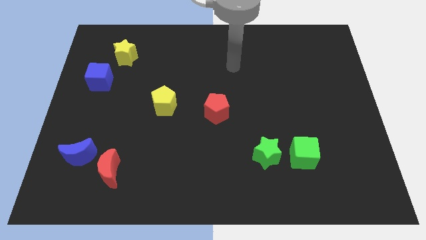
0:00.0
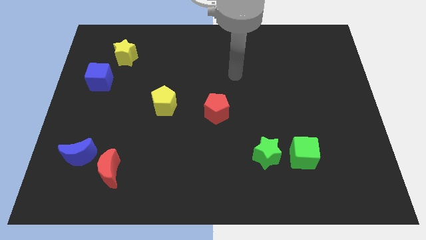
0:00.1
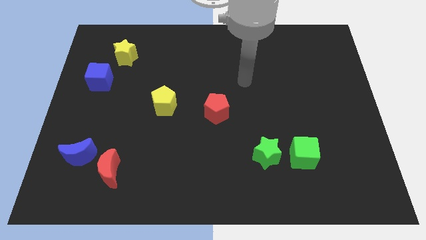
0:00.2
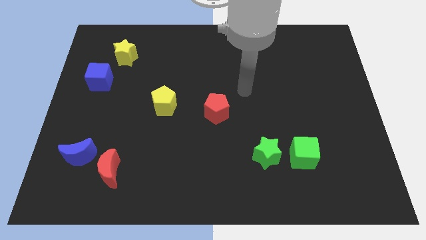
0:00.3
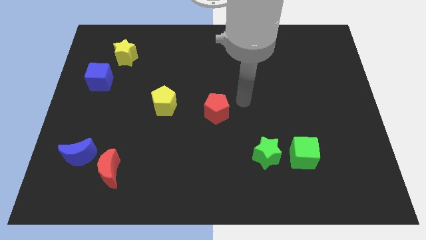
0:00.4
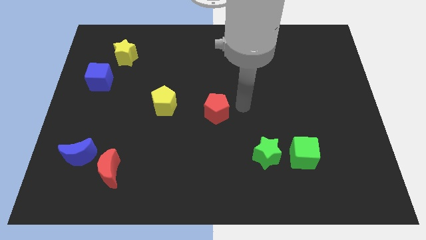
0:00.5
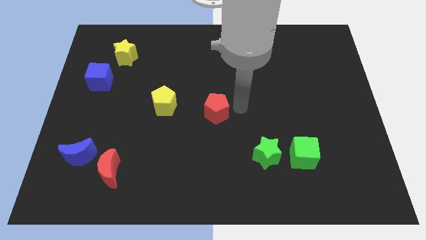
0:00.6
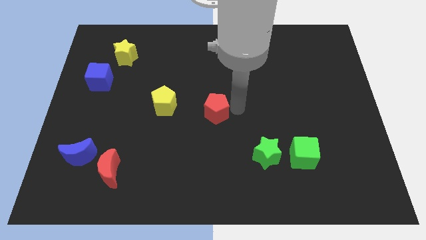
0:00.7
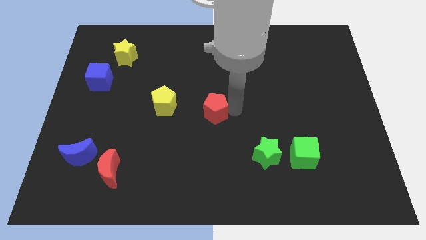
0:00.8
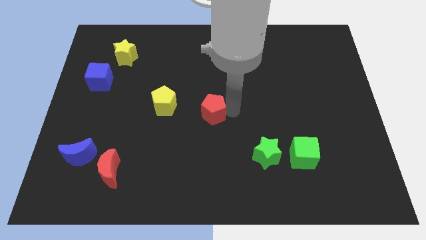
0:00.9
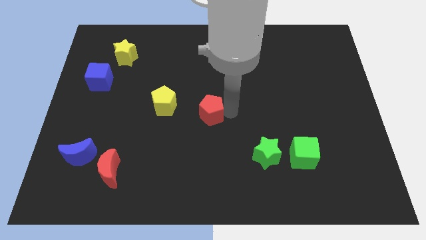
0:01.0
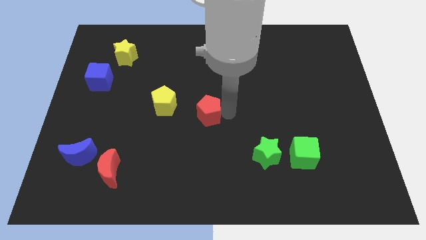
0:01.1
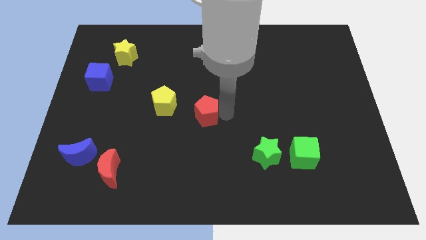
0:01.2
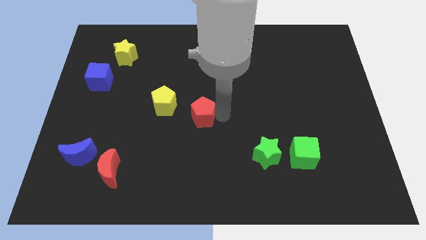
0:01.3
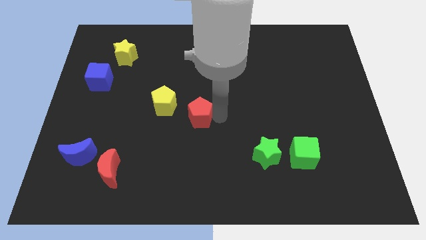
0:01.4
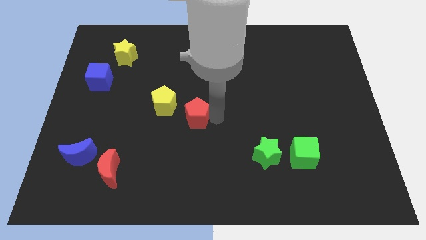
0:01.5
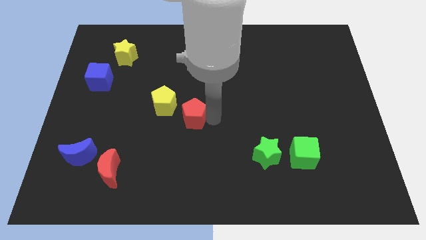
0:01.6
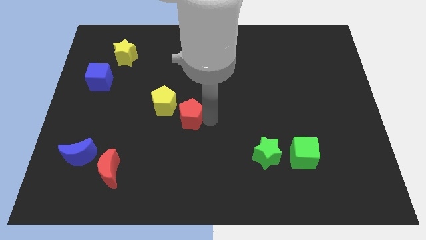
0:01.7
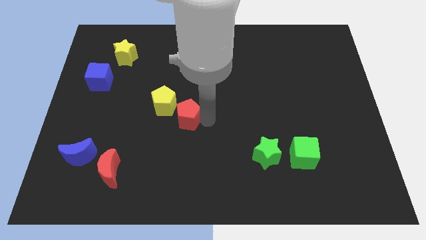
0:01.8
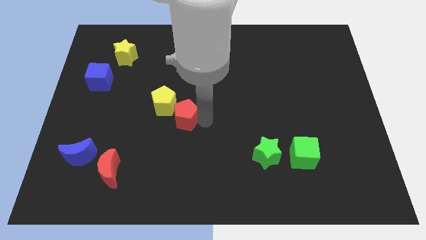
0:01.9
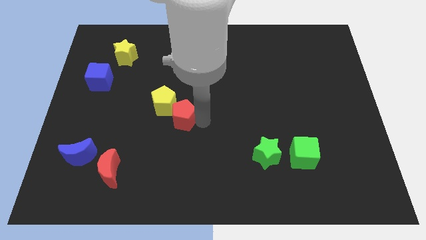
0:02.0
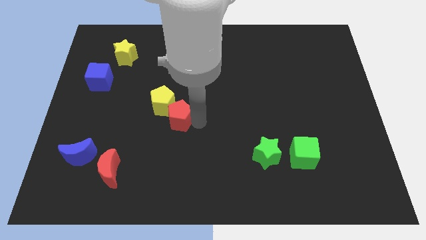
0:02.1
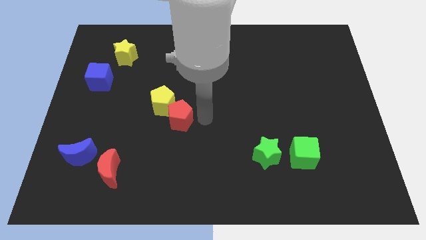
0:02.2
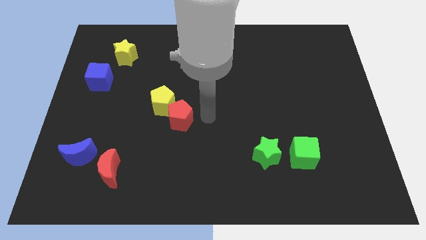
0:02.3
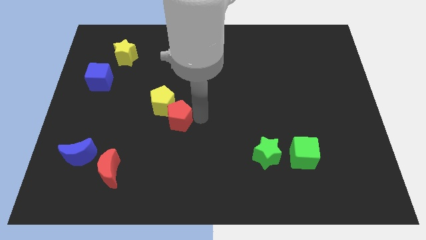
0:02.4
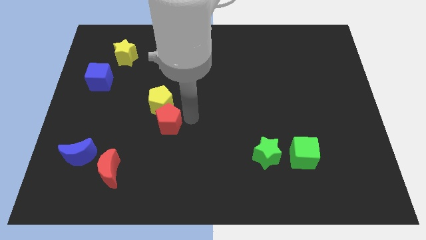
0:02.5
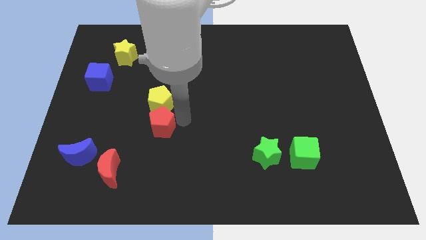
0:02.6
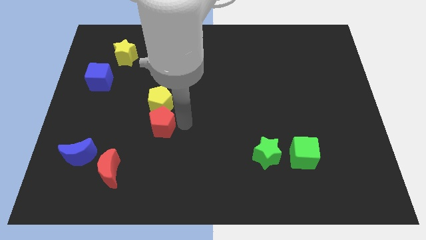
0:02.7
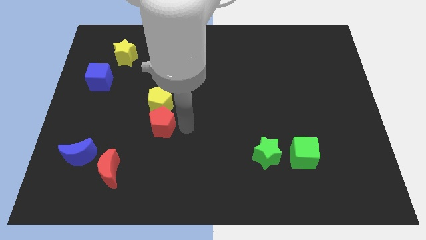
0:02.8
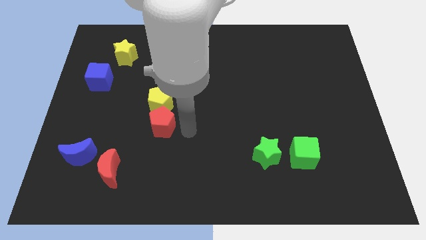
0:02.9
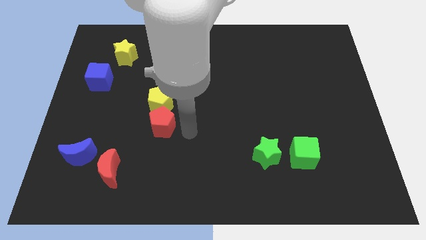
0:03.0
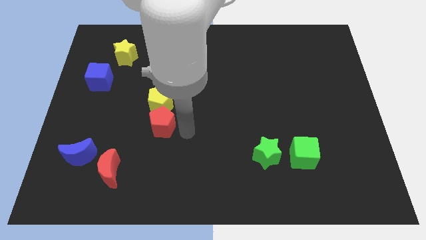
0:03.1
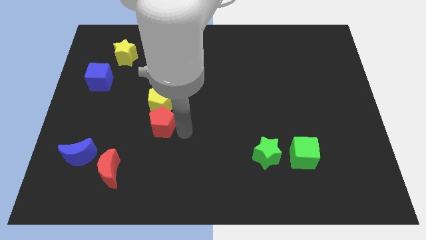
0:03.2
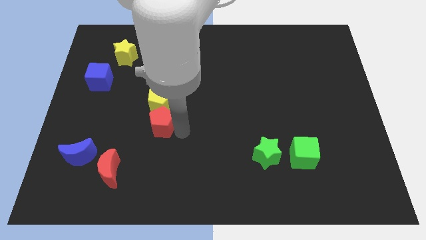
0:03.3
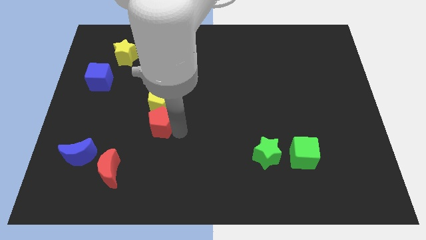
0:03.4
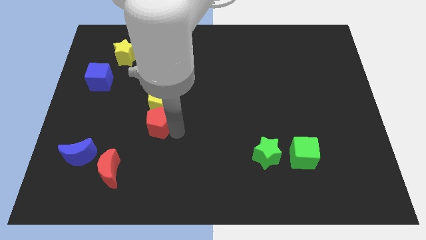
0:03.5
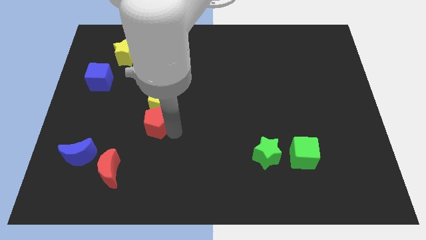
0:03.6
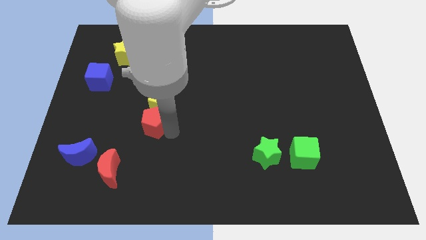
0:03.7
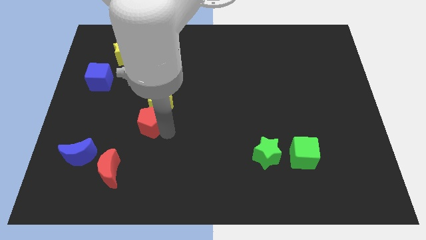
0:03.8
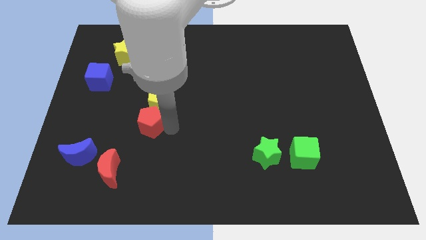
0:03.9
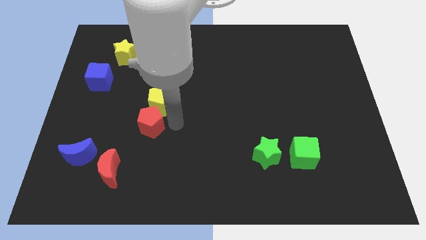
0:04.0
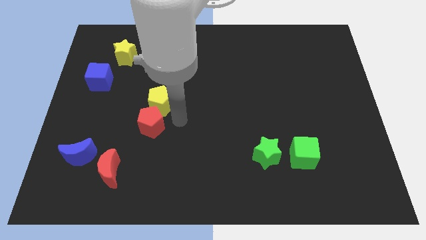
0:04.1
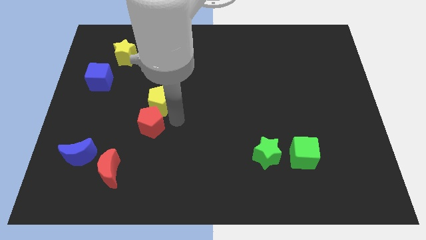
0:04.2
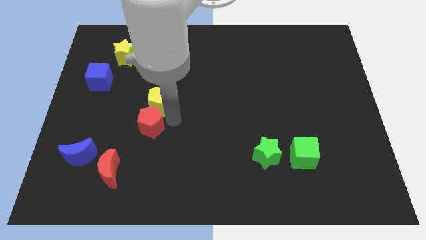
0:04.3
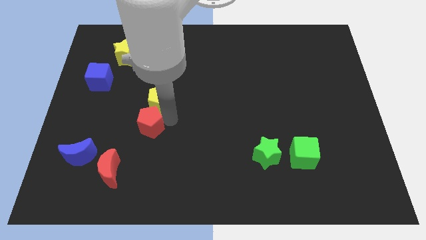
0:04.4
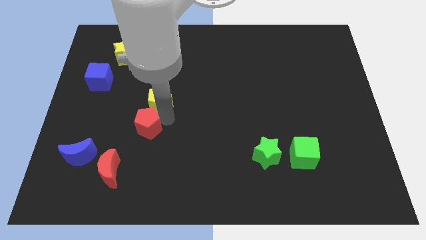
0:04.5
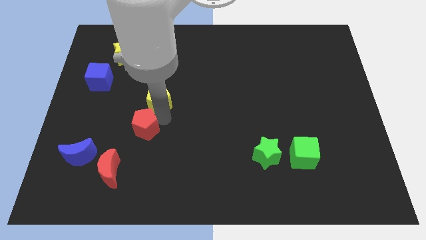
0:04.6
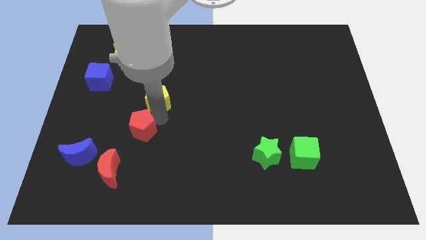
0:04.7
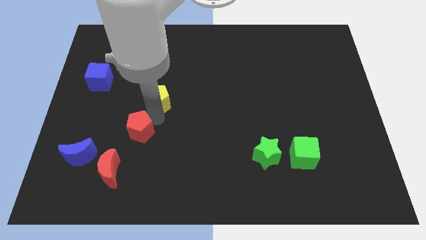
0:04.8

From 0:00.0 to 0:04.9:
put the red pentagon above the red moon

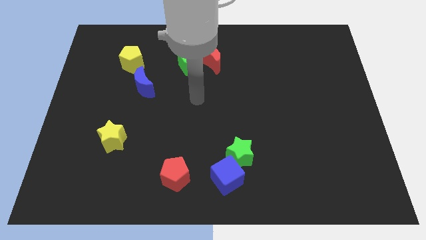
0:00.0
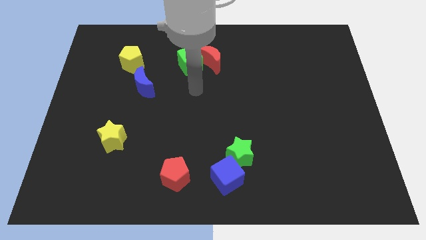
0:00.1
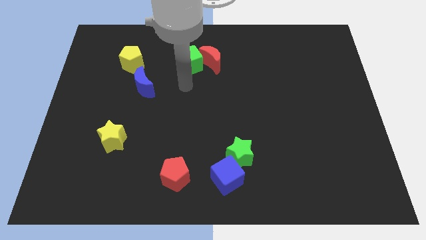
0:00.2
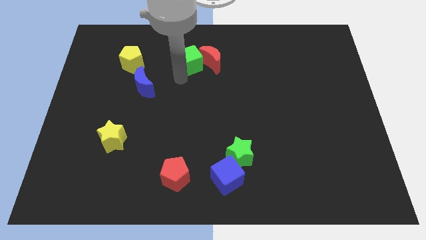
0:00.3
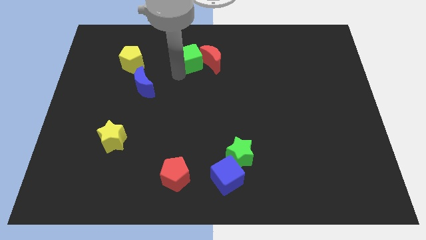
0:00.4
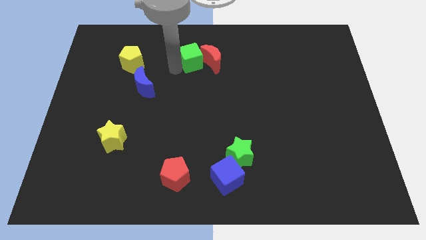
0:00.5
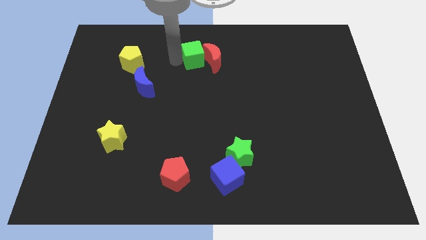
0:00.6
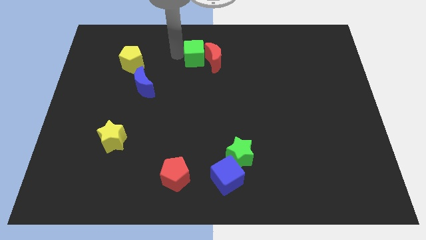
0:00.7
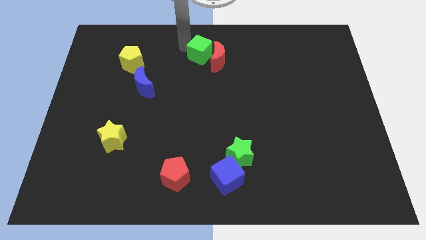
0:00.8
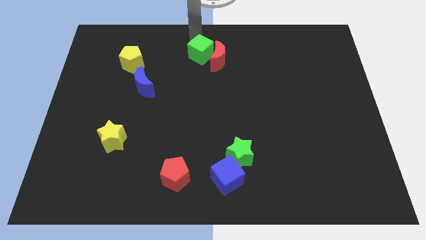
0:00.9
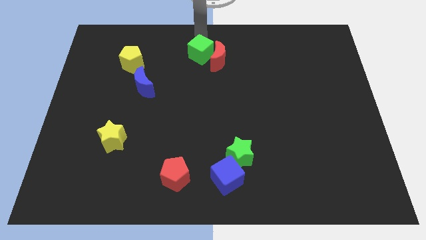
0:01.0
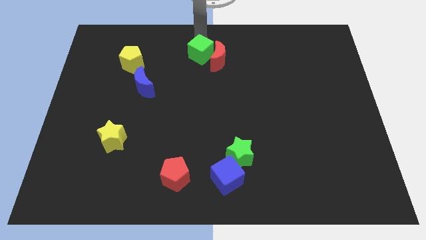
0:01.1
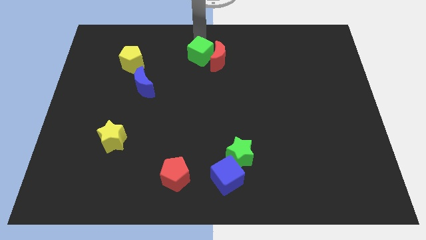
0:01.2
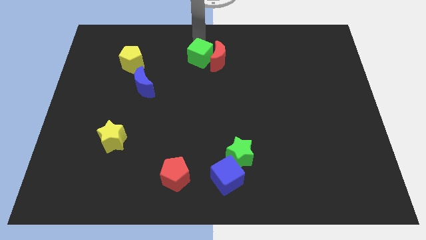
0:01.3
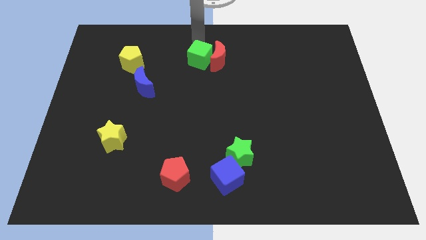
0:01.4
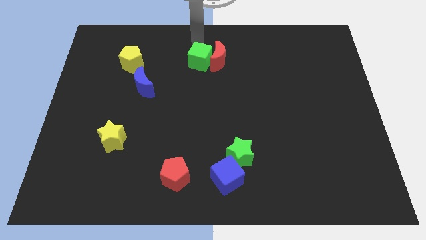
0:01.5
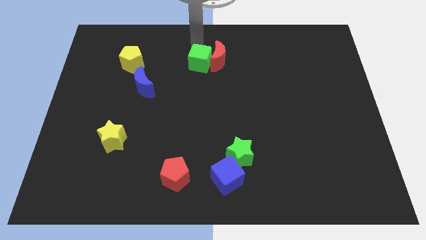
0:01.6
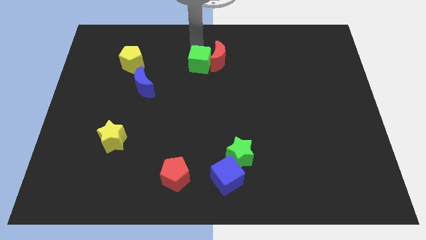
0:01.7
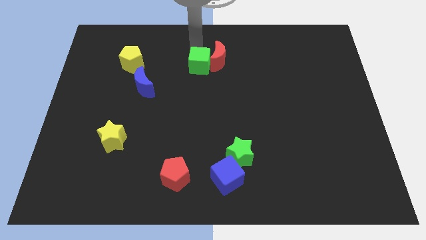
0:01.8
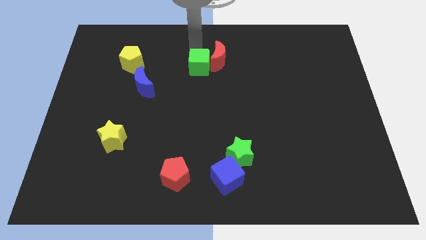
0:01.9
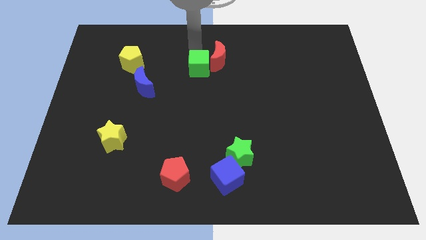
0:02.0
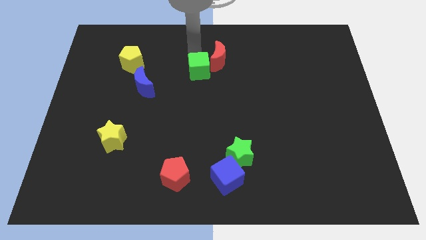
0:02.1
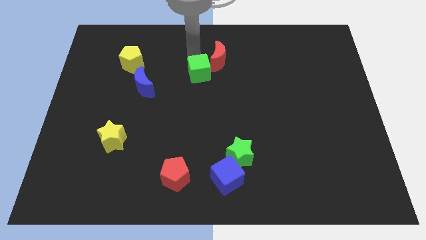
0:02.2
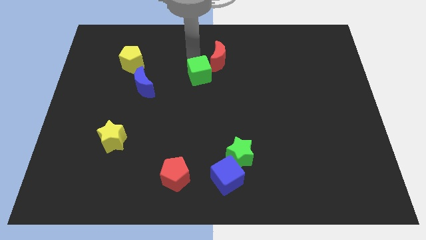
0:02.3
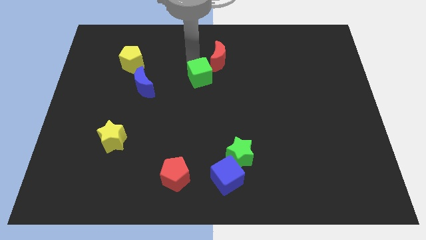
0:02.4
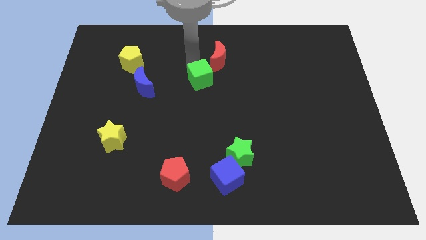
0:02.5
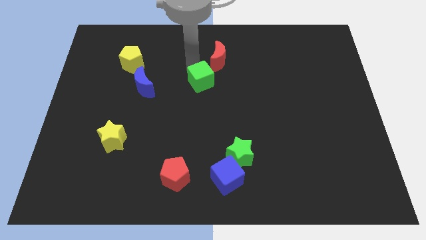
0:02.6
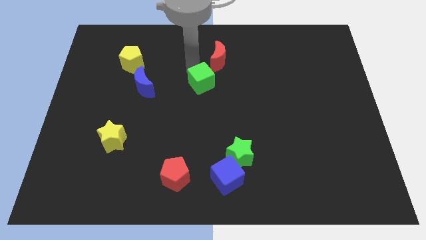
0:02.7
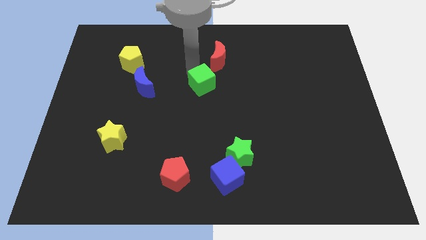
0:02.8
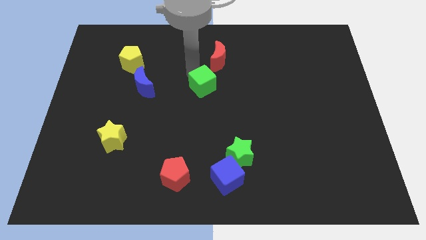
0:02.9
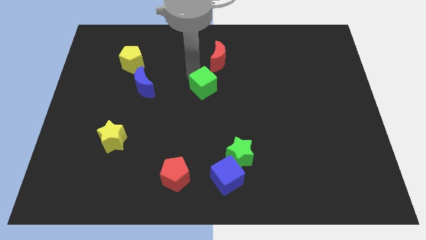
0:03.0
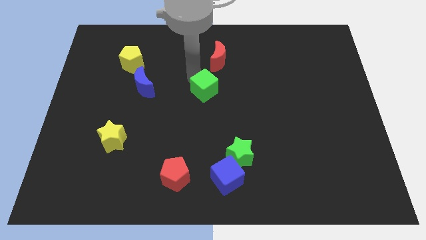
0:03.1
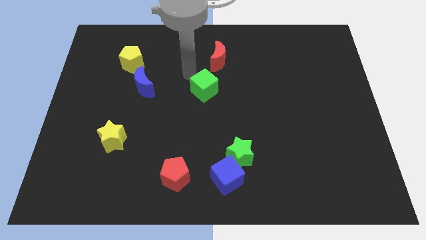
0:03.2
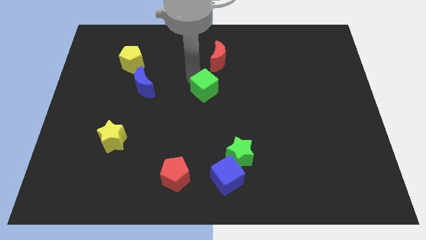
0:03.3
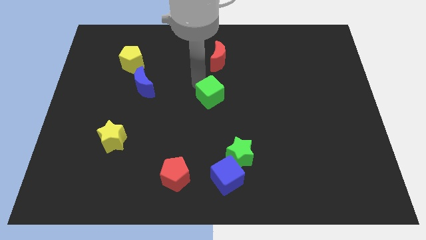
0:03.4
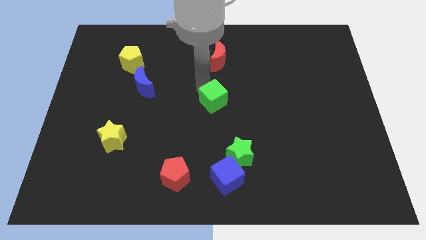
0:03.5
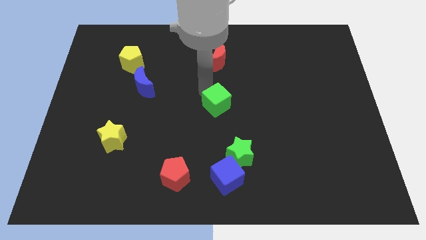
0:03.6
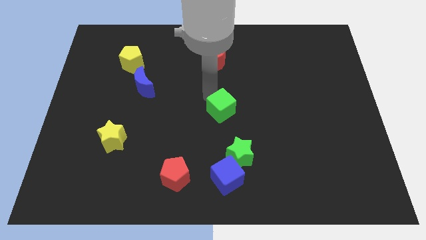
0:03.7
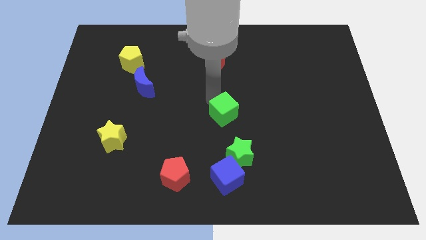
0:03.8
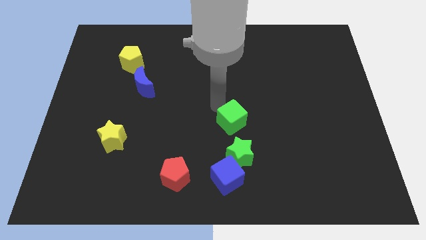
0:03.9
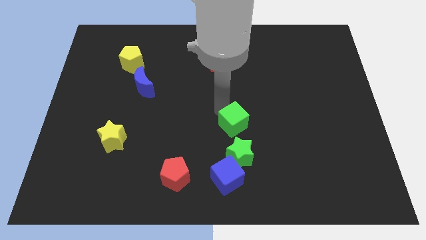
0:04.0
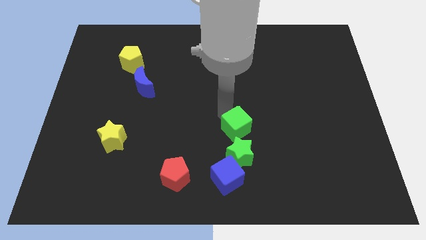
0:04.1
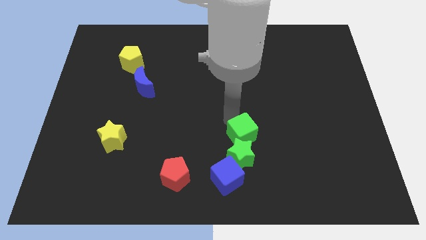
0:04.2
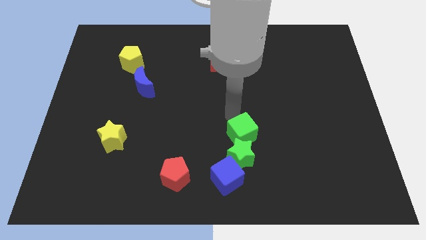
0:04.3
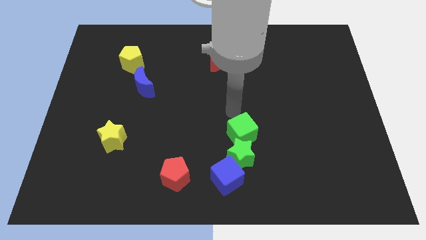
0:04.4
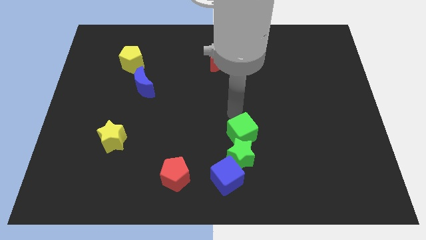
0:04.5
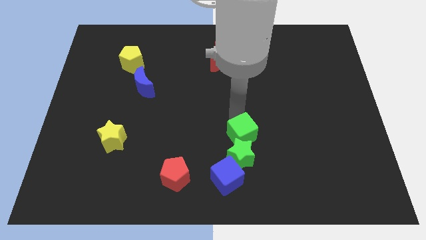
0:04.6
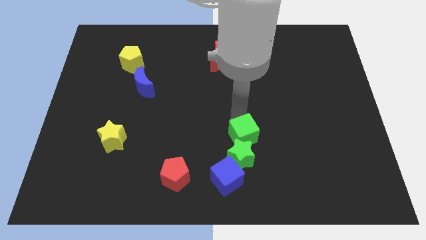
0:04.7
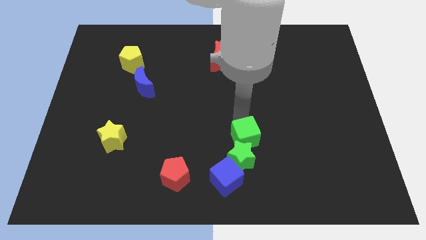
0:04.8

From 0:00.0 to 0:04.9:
push the green cube to the top right side of the blue cube
